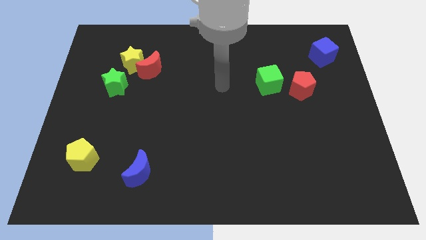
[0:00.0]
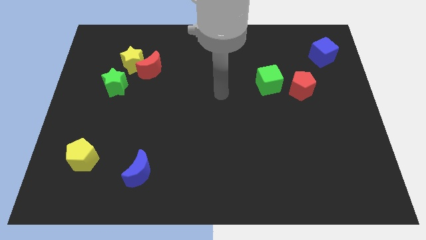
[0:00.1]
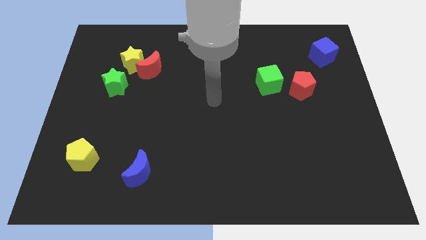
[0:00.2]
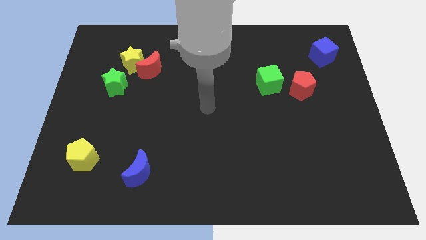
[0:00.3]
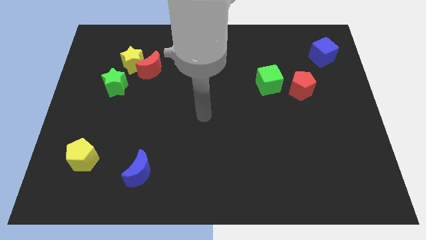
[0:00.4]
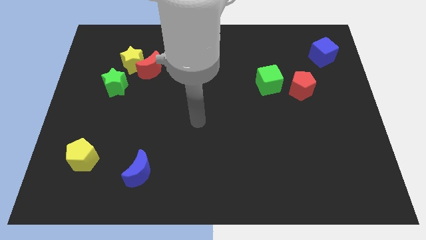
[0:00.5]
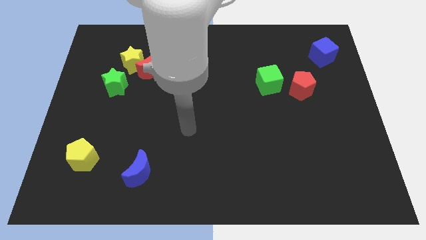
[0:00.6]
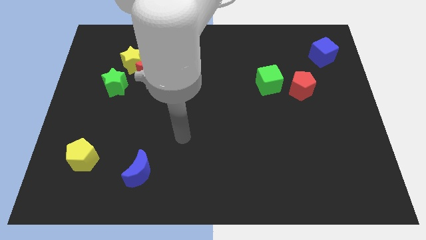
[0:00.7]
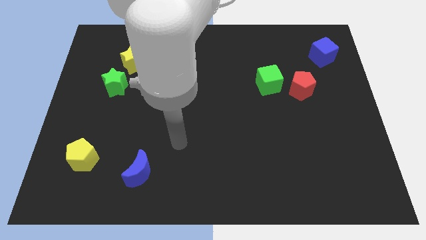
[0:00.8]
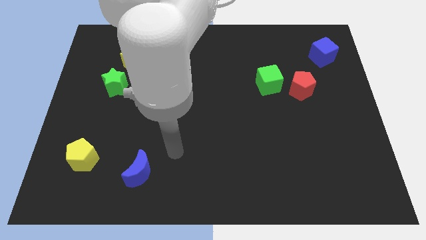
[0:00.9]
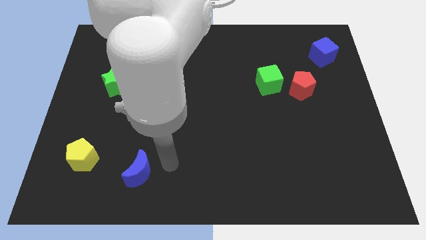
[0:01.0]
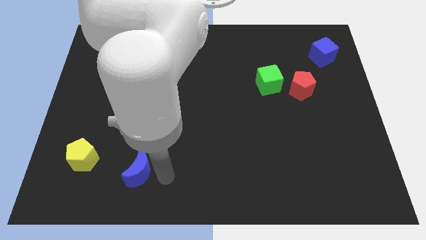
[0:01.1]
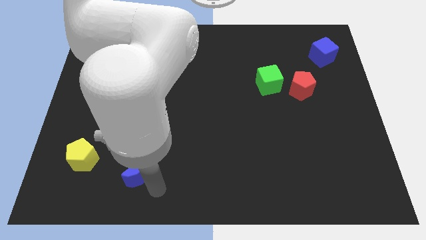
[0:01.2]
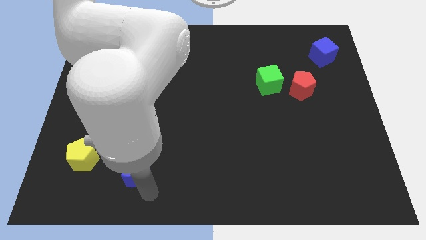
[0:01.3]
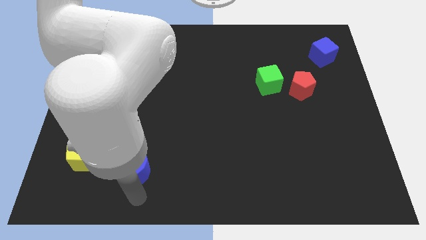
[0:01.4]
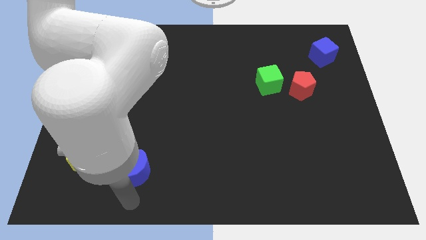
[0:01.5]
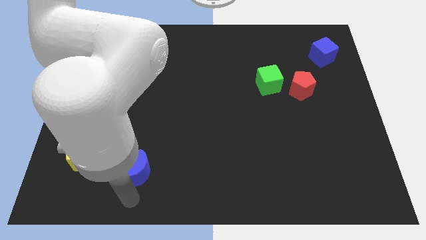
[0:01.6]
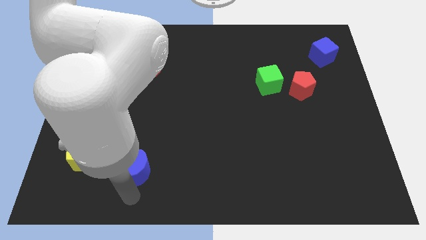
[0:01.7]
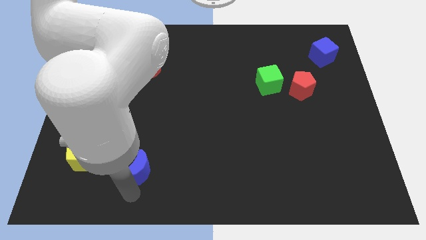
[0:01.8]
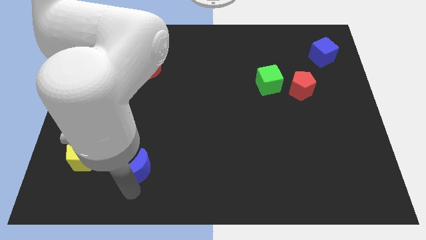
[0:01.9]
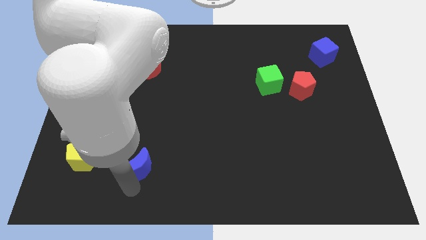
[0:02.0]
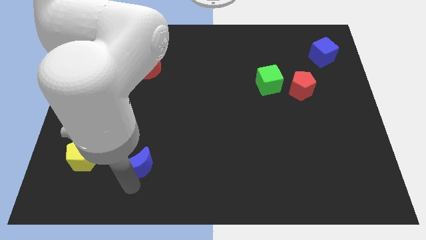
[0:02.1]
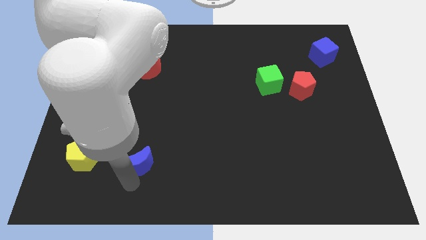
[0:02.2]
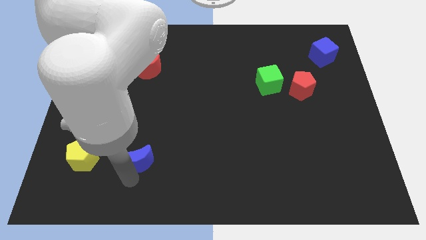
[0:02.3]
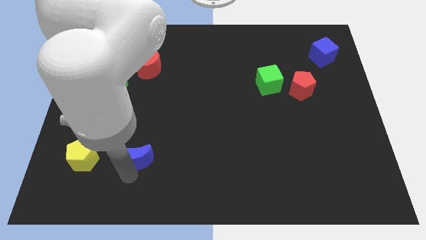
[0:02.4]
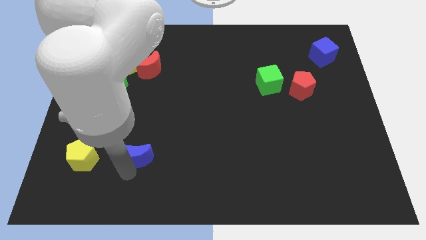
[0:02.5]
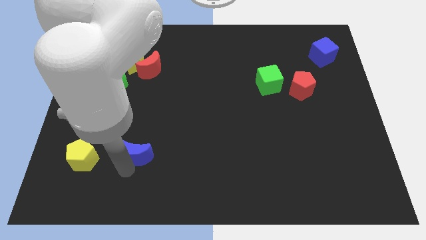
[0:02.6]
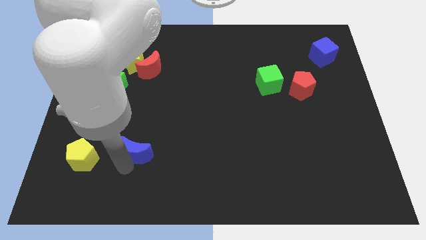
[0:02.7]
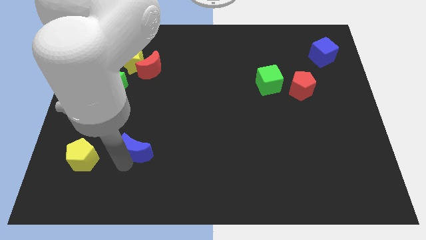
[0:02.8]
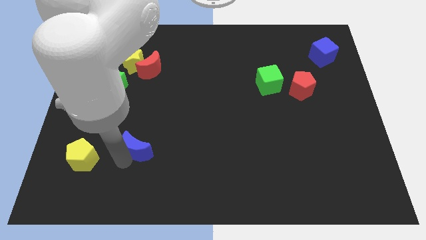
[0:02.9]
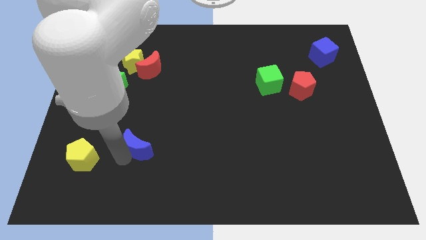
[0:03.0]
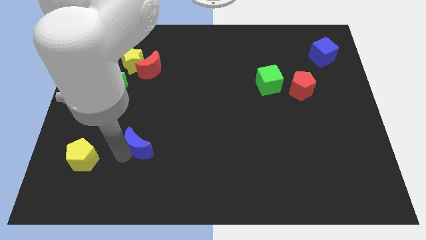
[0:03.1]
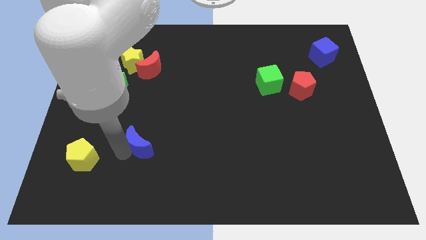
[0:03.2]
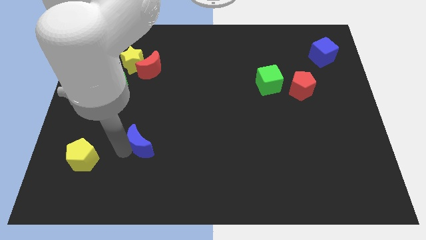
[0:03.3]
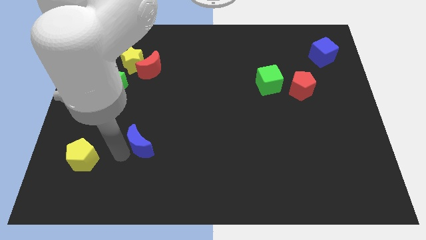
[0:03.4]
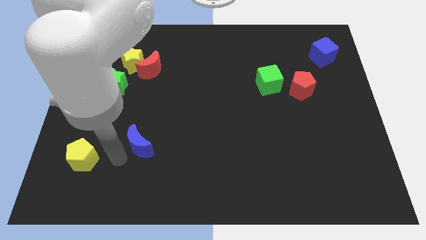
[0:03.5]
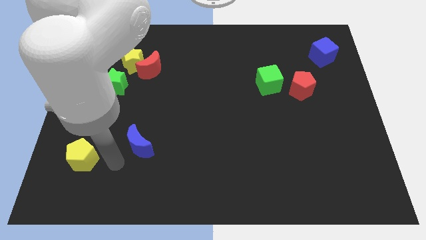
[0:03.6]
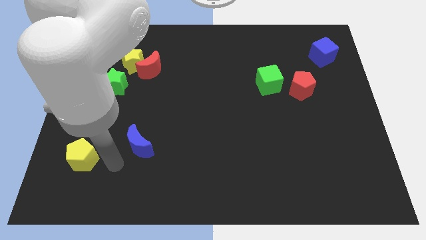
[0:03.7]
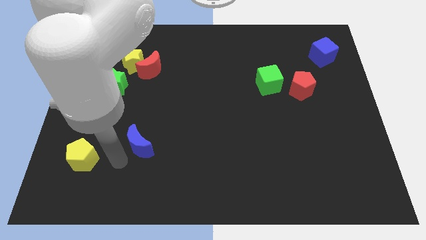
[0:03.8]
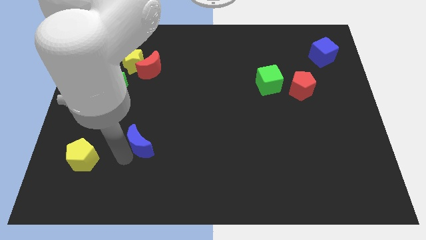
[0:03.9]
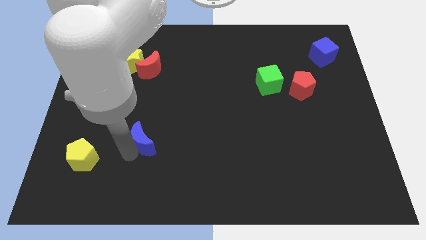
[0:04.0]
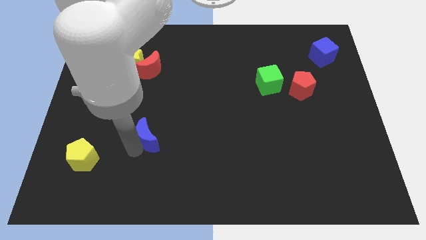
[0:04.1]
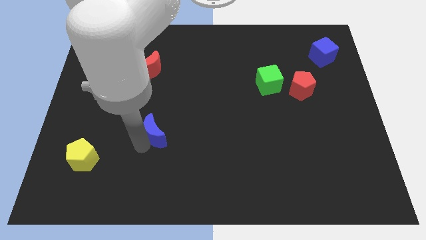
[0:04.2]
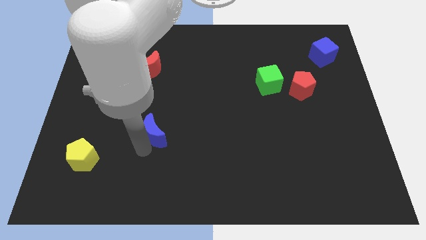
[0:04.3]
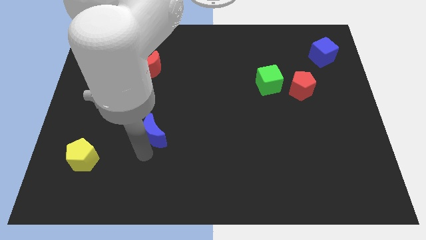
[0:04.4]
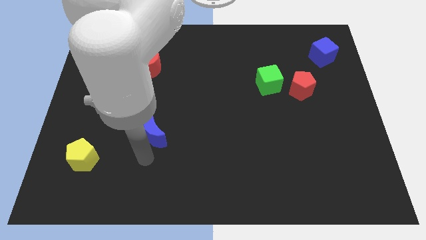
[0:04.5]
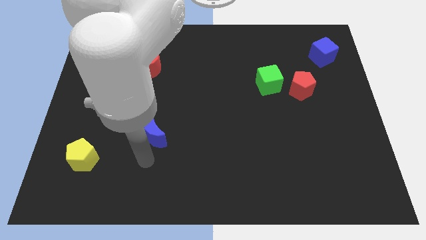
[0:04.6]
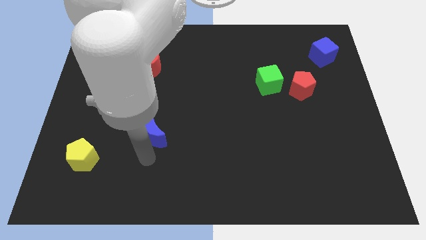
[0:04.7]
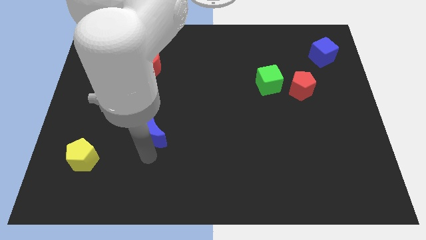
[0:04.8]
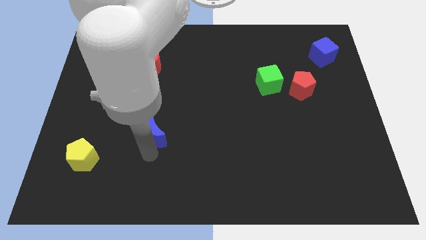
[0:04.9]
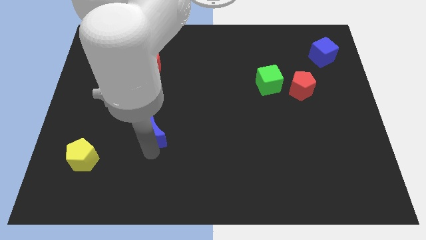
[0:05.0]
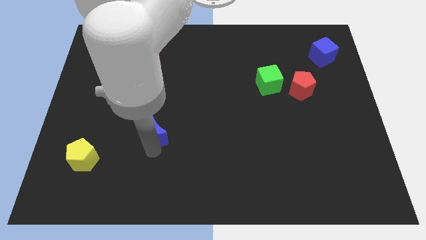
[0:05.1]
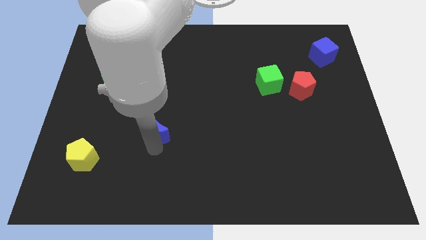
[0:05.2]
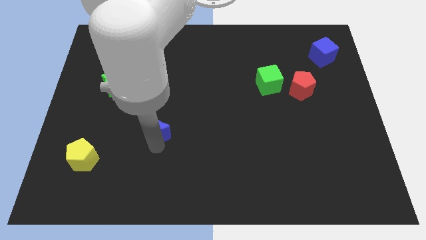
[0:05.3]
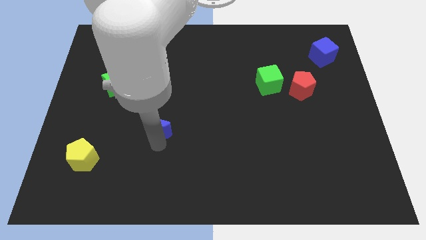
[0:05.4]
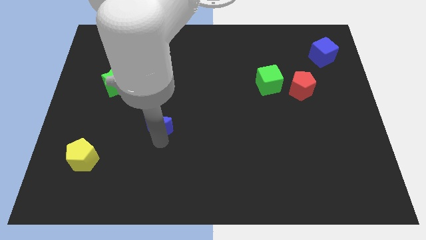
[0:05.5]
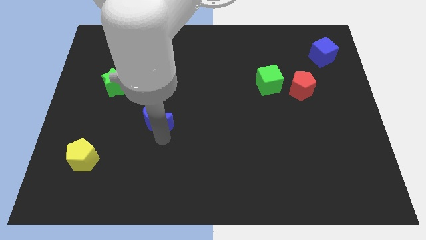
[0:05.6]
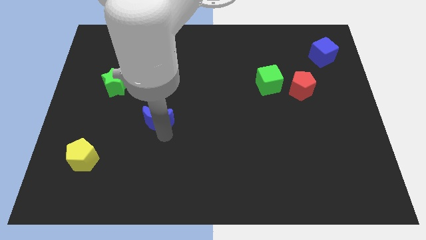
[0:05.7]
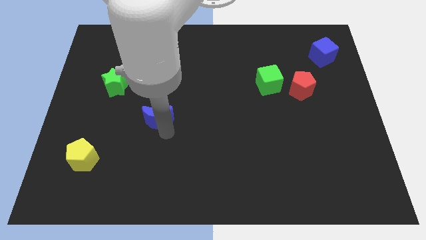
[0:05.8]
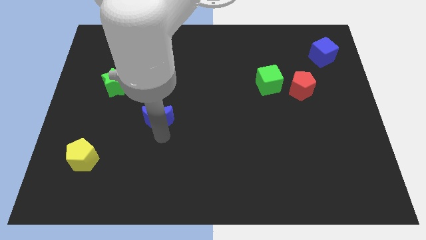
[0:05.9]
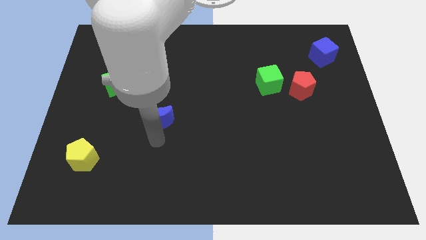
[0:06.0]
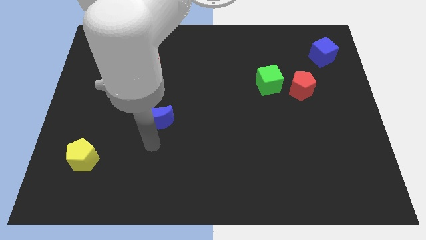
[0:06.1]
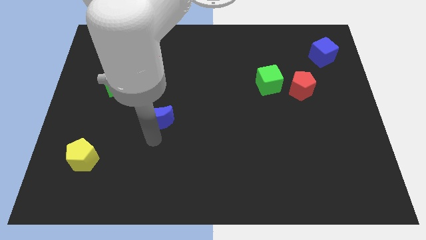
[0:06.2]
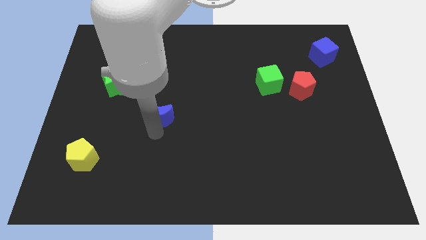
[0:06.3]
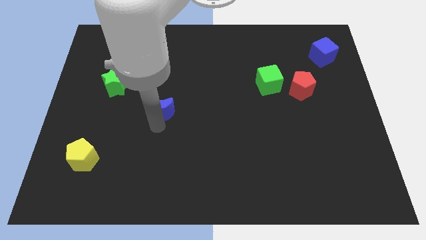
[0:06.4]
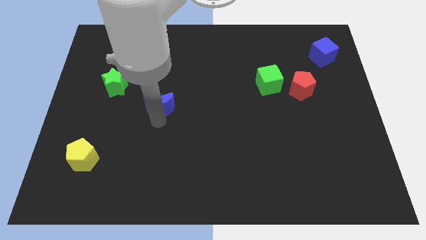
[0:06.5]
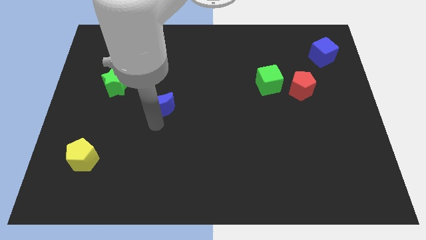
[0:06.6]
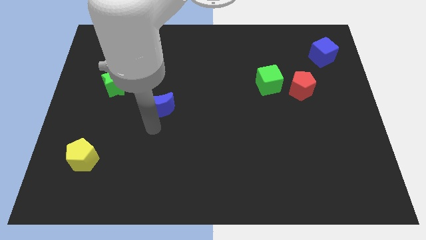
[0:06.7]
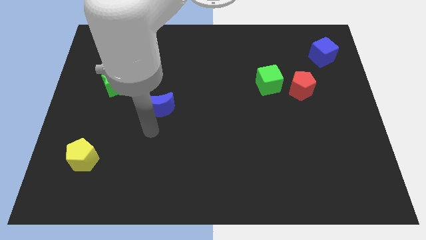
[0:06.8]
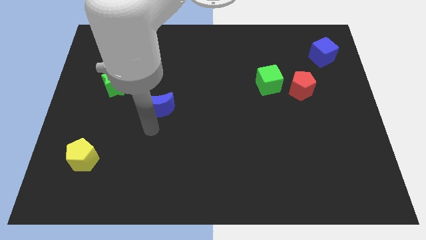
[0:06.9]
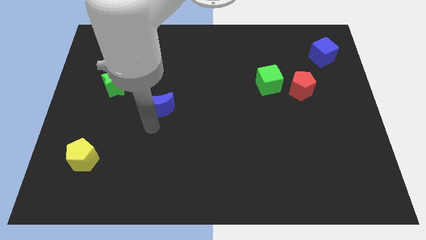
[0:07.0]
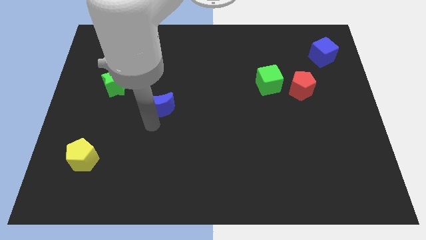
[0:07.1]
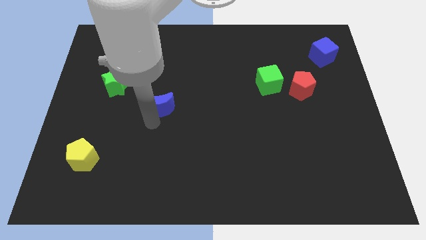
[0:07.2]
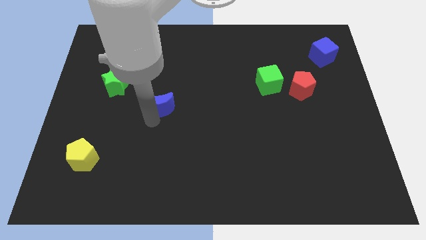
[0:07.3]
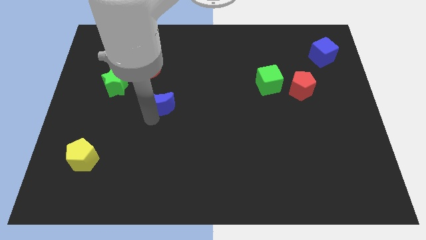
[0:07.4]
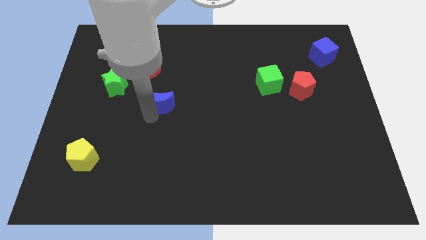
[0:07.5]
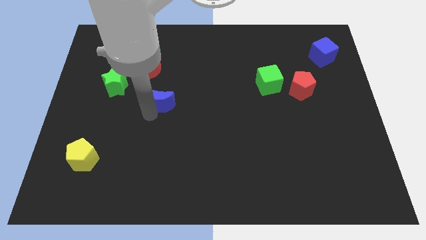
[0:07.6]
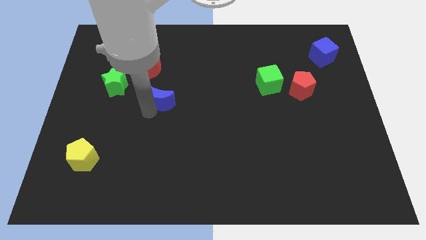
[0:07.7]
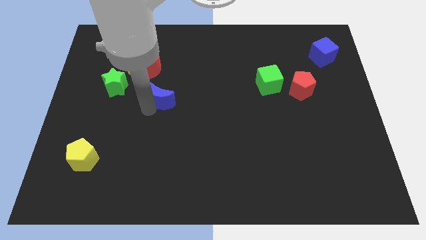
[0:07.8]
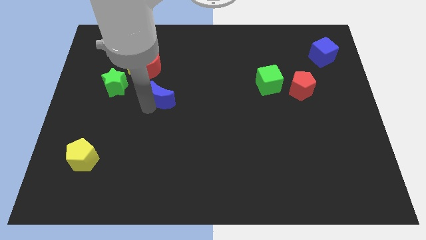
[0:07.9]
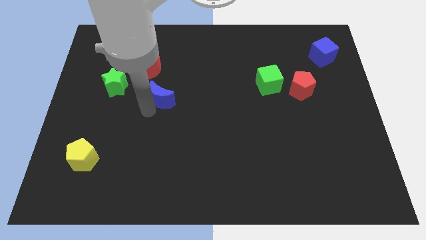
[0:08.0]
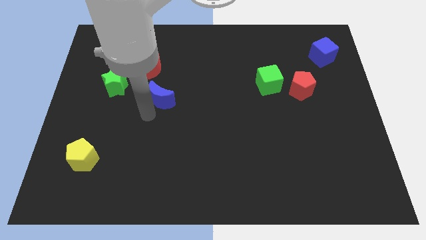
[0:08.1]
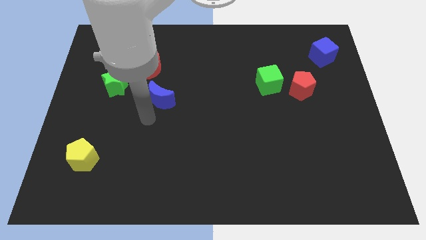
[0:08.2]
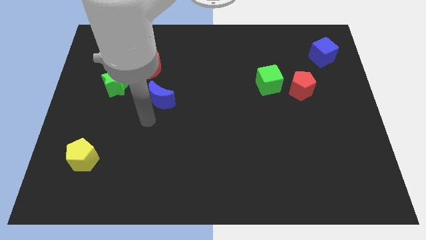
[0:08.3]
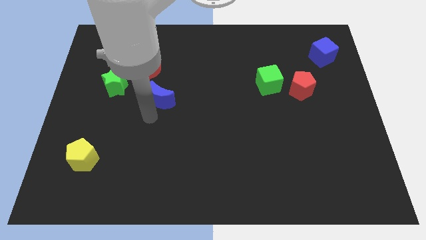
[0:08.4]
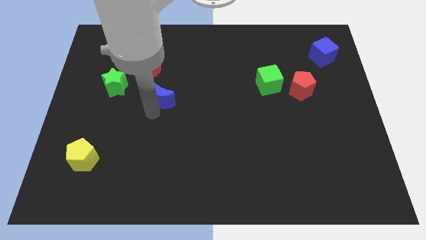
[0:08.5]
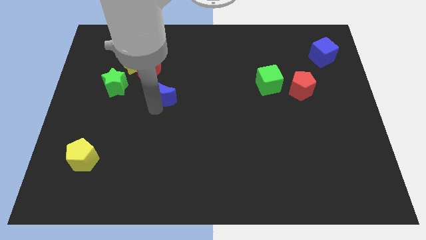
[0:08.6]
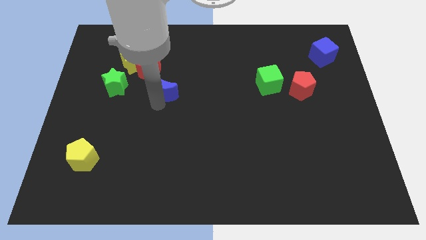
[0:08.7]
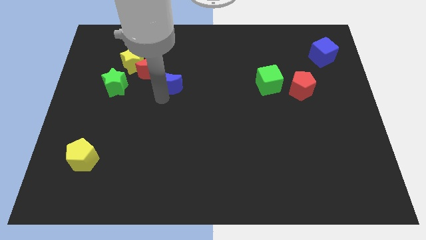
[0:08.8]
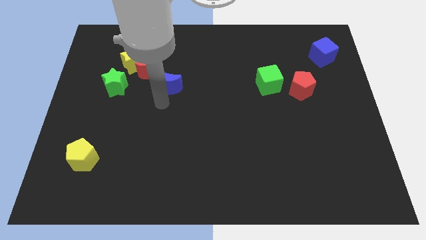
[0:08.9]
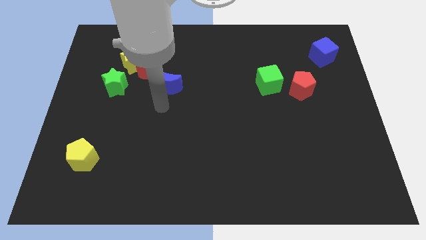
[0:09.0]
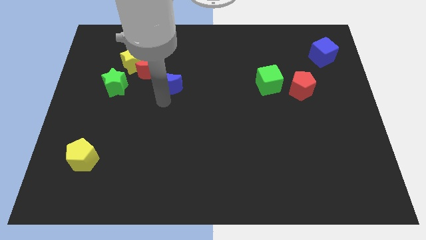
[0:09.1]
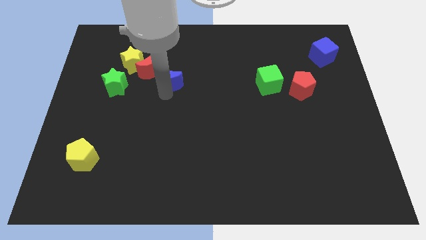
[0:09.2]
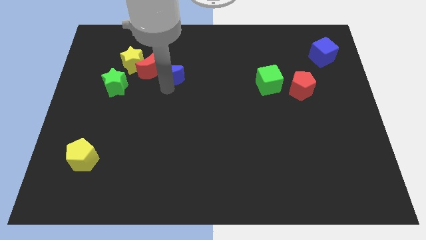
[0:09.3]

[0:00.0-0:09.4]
slide the blue moon to the right side of the yellow star
